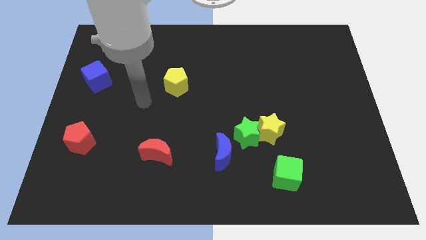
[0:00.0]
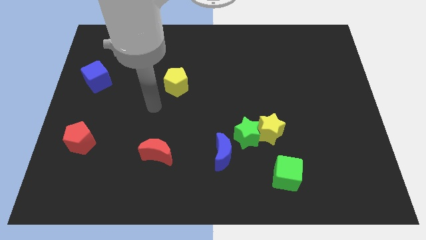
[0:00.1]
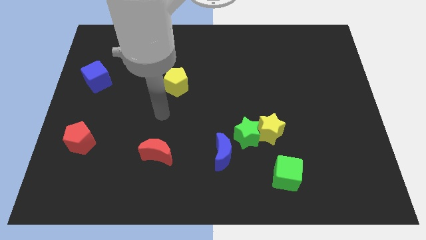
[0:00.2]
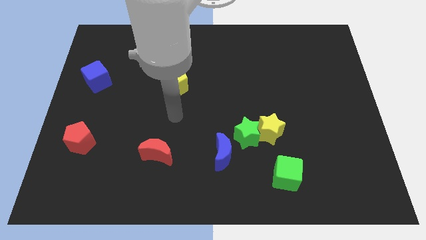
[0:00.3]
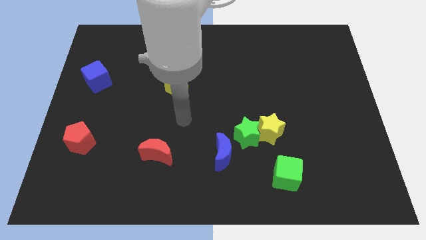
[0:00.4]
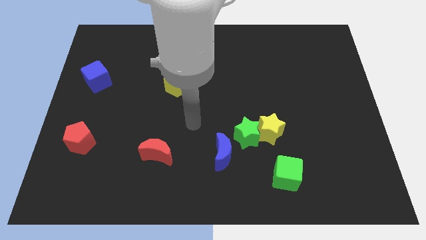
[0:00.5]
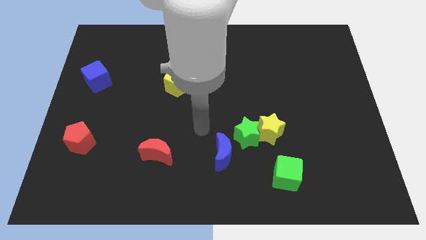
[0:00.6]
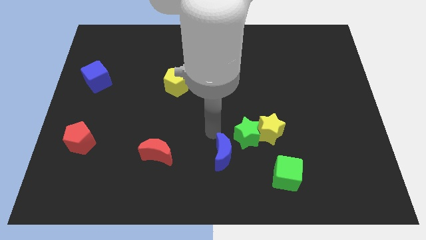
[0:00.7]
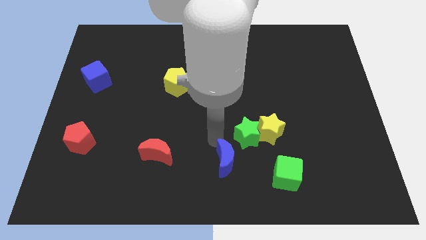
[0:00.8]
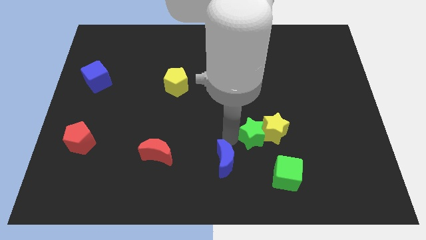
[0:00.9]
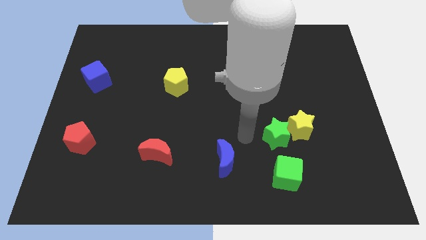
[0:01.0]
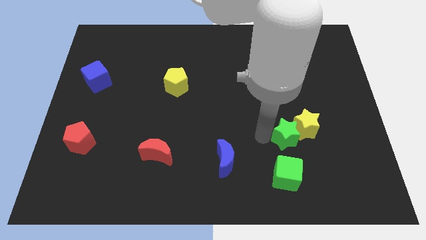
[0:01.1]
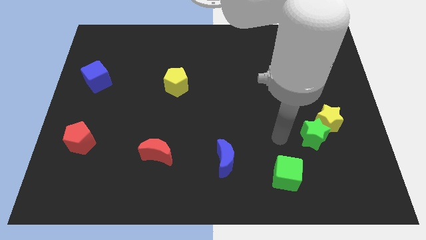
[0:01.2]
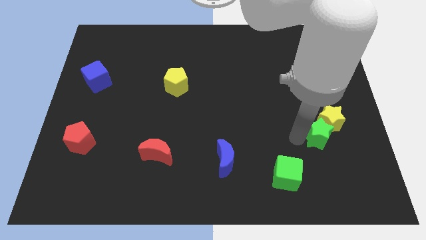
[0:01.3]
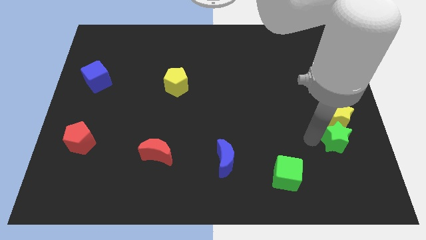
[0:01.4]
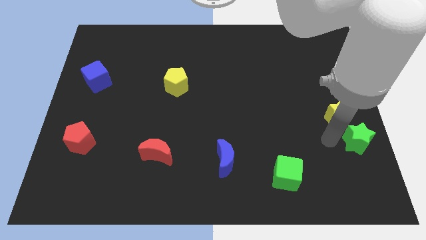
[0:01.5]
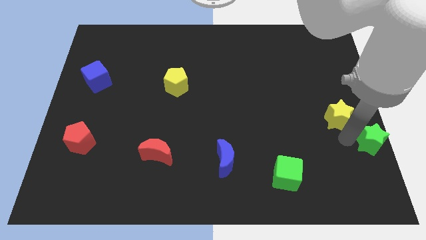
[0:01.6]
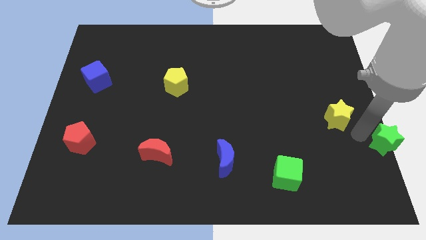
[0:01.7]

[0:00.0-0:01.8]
separate the yellow star from the green star

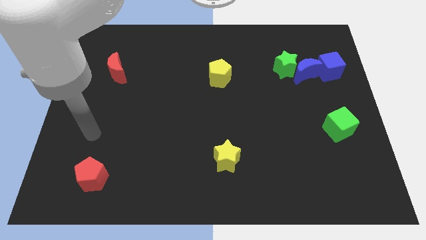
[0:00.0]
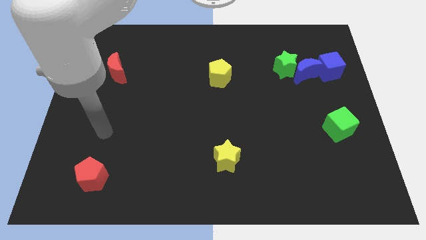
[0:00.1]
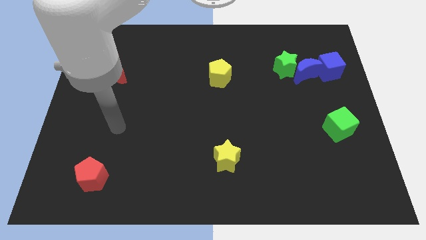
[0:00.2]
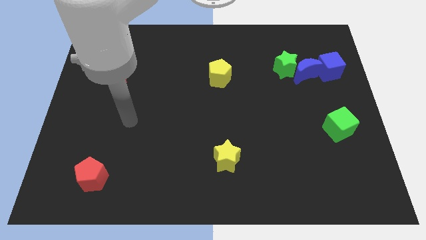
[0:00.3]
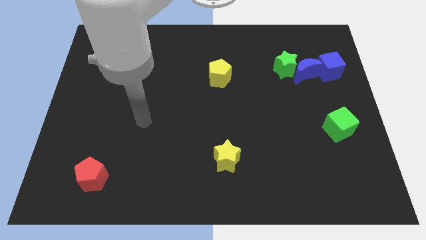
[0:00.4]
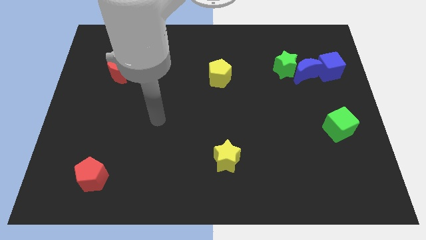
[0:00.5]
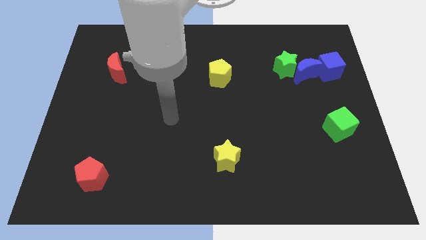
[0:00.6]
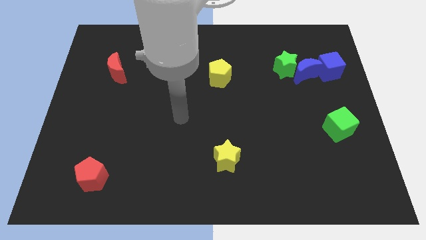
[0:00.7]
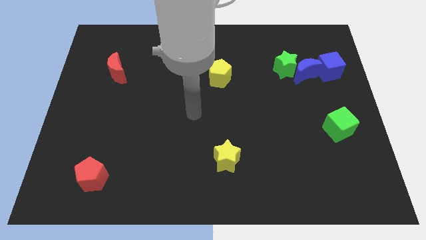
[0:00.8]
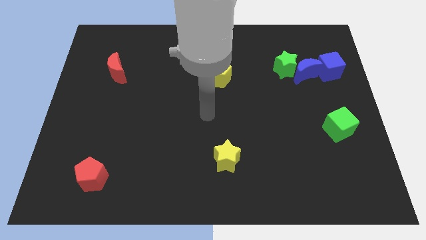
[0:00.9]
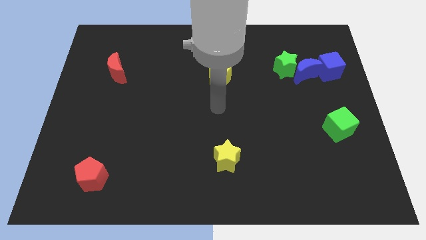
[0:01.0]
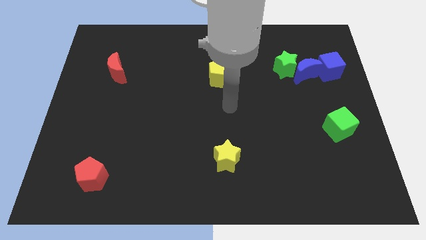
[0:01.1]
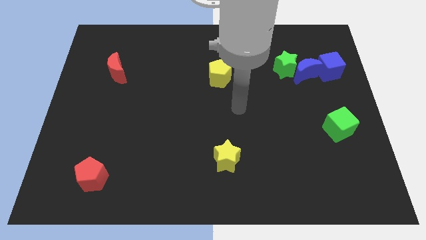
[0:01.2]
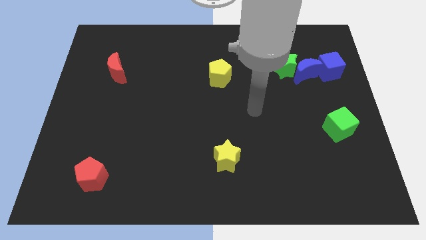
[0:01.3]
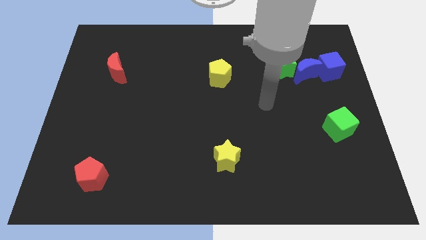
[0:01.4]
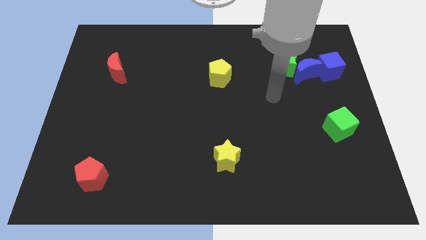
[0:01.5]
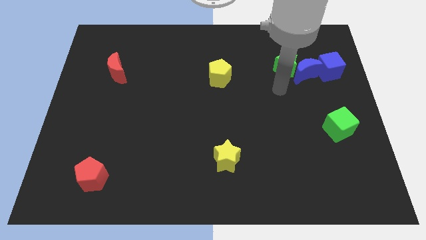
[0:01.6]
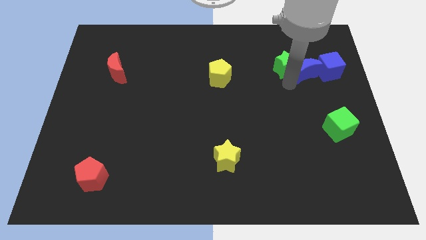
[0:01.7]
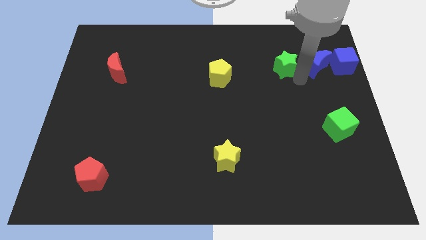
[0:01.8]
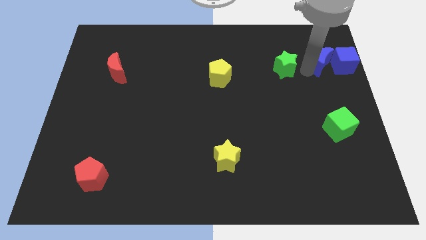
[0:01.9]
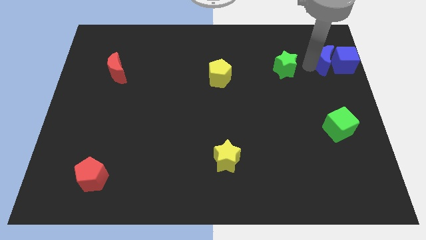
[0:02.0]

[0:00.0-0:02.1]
move the green star away from the blue moon

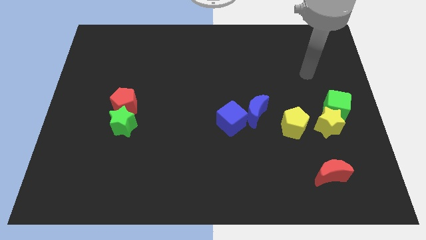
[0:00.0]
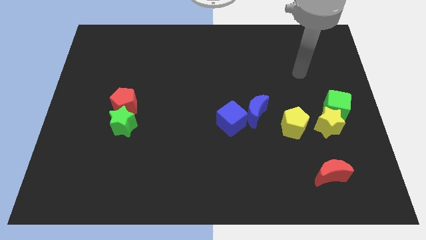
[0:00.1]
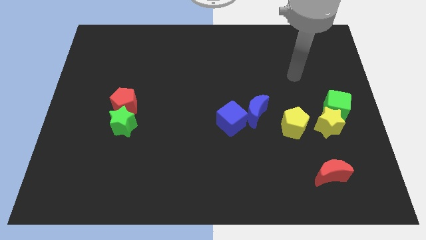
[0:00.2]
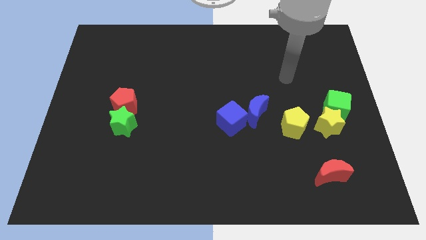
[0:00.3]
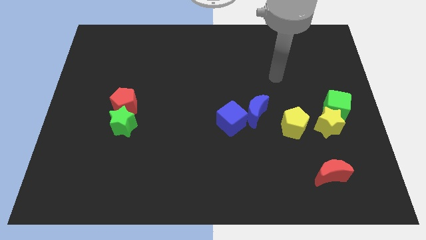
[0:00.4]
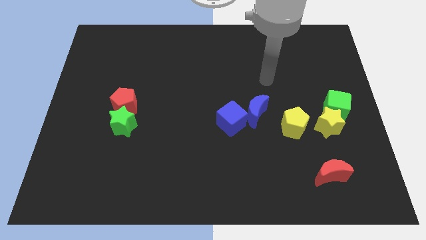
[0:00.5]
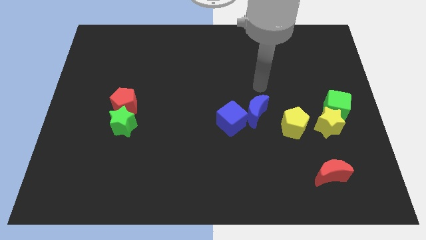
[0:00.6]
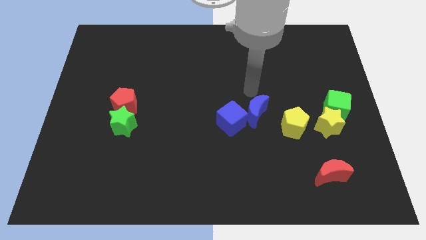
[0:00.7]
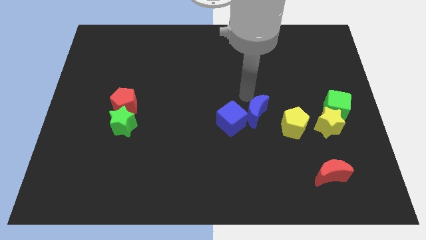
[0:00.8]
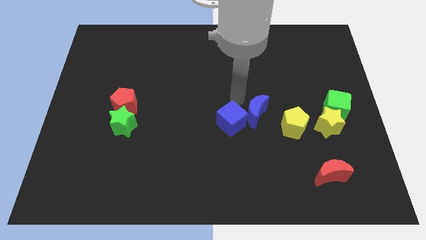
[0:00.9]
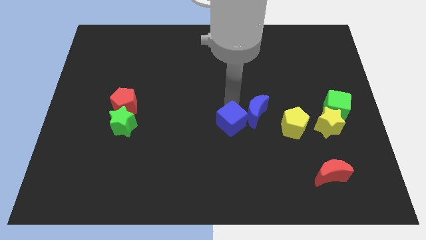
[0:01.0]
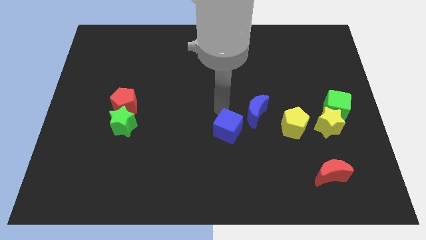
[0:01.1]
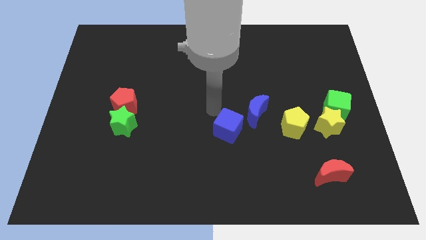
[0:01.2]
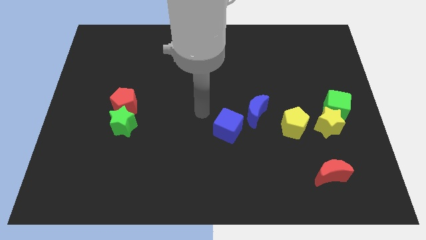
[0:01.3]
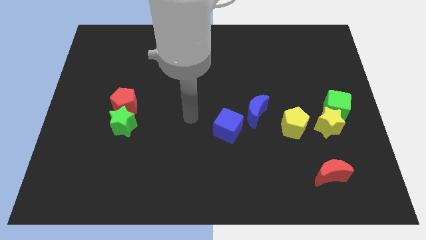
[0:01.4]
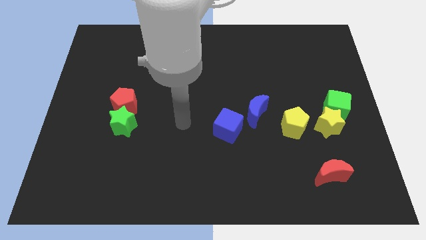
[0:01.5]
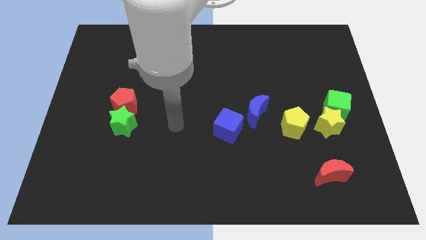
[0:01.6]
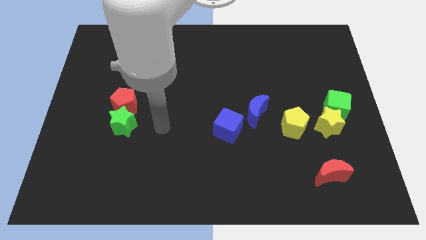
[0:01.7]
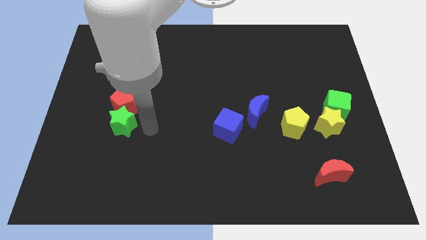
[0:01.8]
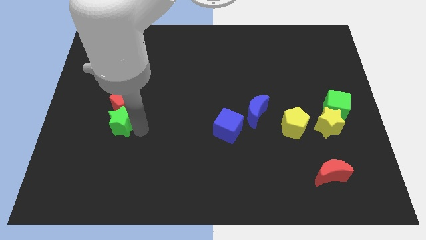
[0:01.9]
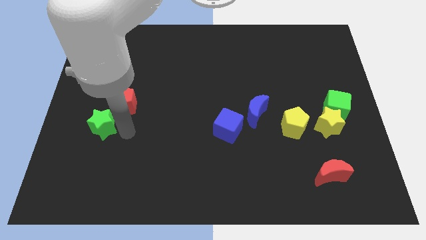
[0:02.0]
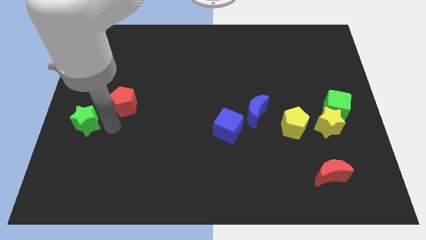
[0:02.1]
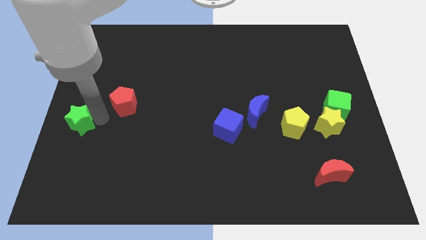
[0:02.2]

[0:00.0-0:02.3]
move the red pentagon away from the green star

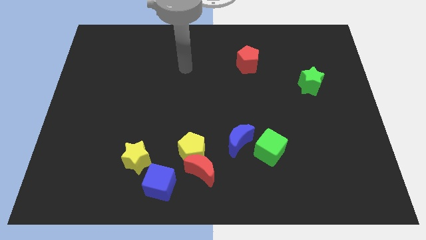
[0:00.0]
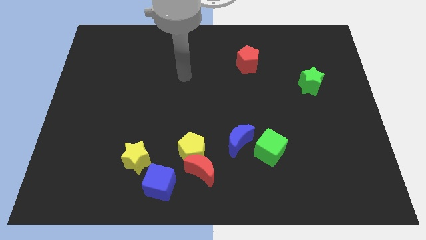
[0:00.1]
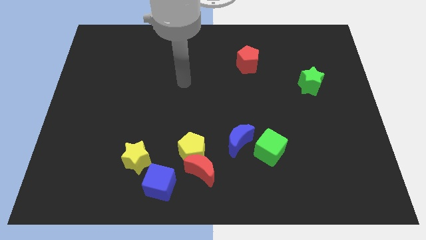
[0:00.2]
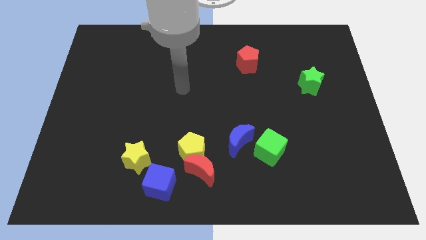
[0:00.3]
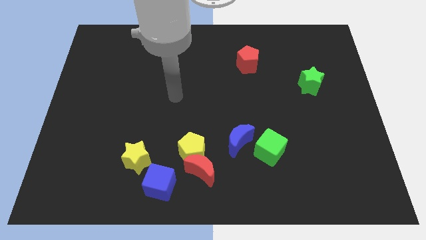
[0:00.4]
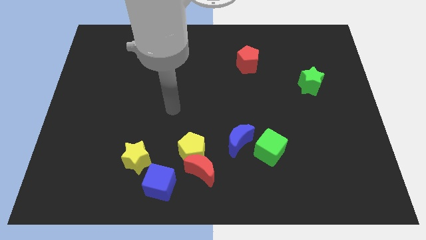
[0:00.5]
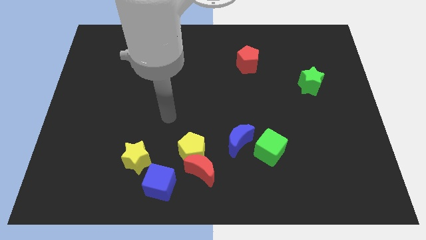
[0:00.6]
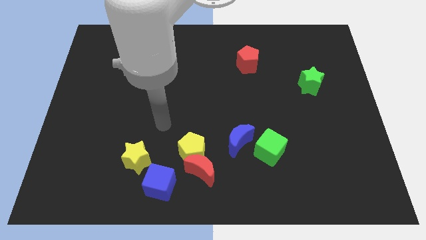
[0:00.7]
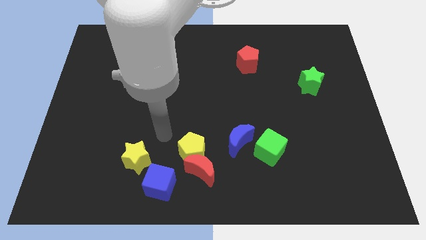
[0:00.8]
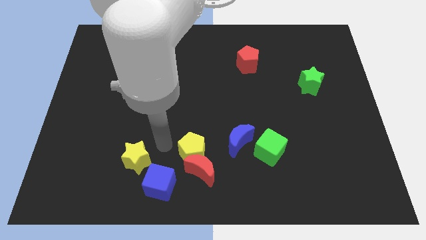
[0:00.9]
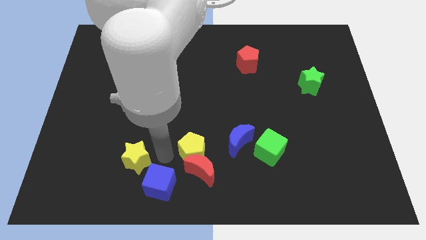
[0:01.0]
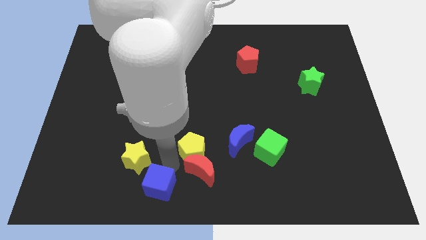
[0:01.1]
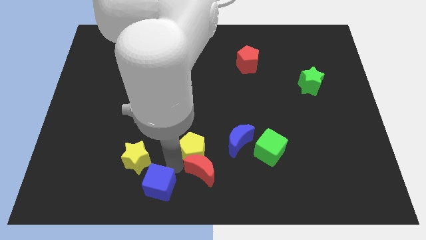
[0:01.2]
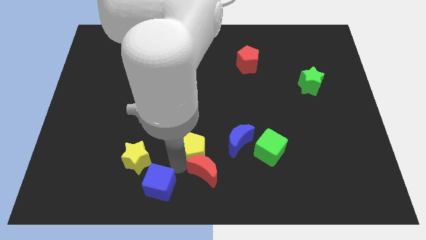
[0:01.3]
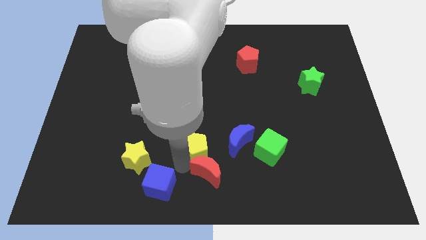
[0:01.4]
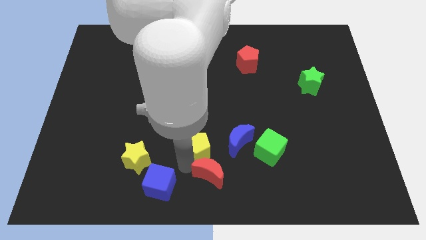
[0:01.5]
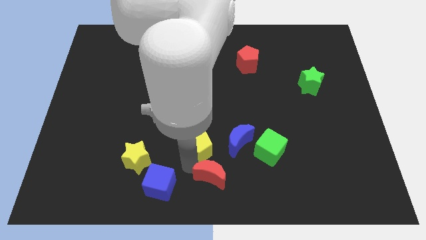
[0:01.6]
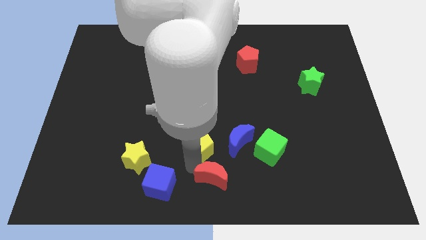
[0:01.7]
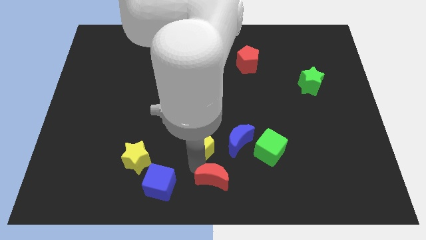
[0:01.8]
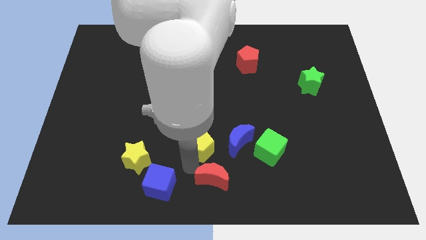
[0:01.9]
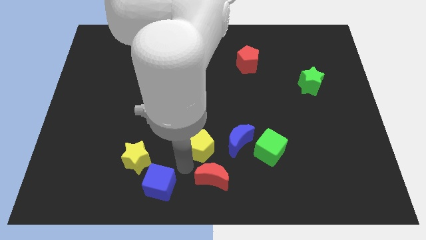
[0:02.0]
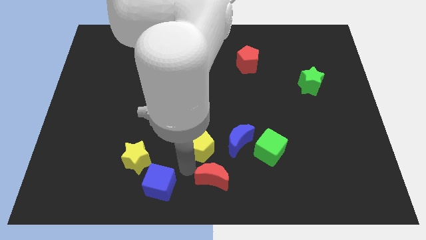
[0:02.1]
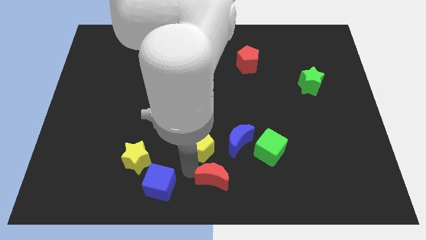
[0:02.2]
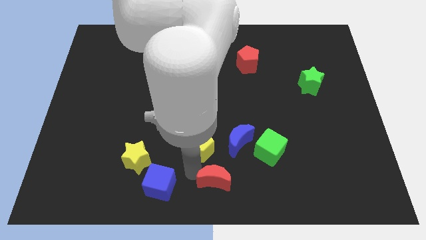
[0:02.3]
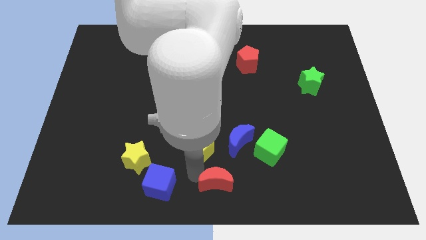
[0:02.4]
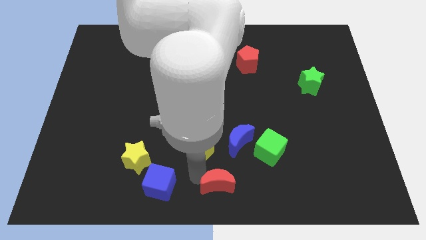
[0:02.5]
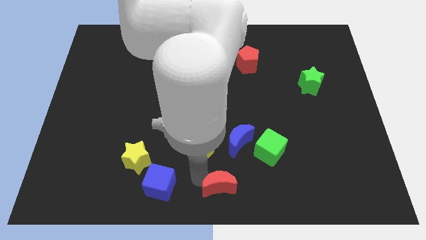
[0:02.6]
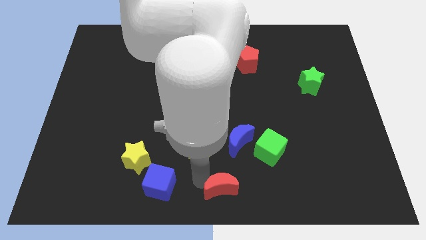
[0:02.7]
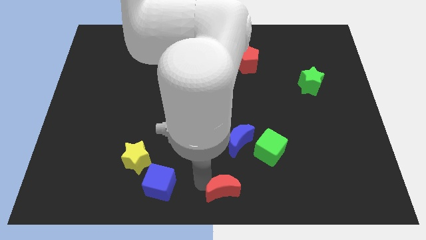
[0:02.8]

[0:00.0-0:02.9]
separate the red moon from the yellow pentagon and blue cube

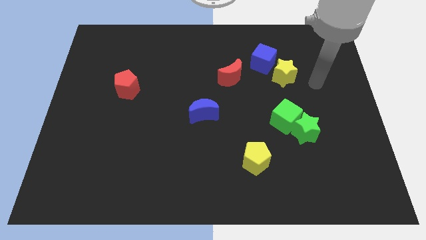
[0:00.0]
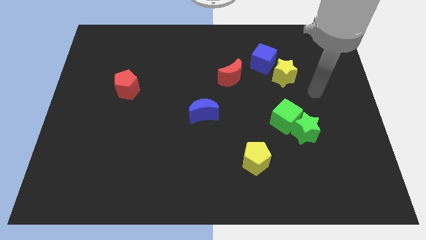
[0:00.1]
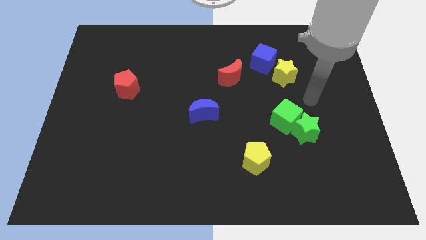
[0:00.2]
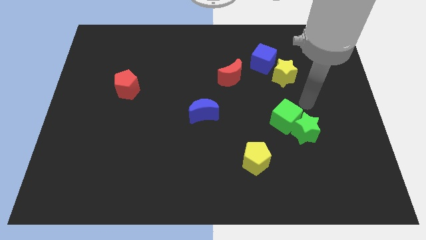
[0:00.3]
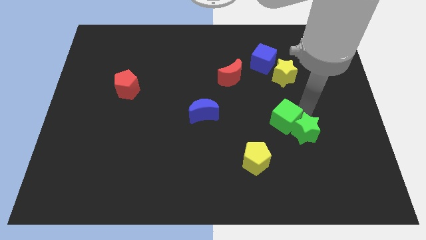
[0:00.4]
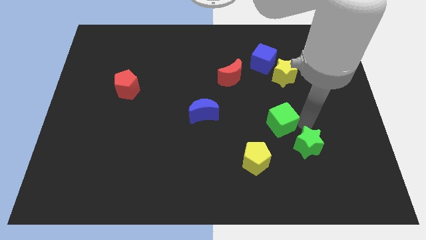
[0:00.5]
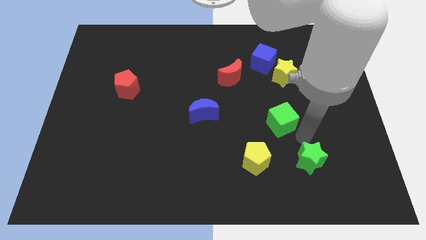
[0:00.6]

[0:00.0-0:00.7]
separate the green cube from the green star
